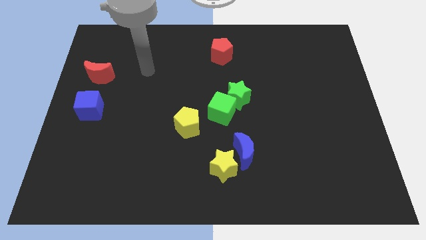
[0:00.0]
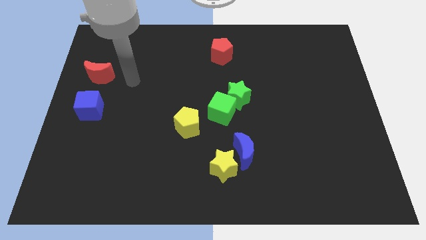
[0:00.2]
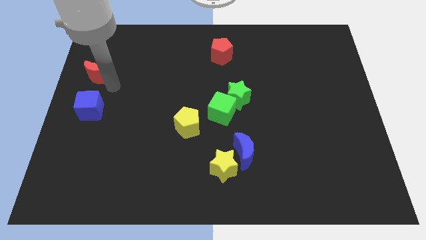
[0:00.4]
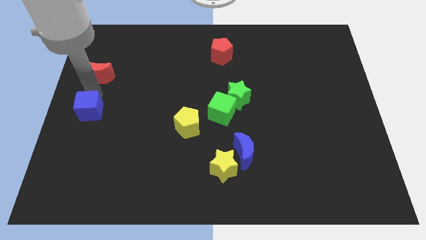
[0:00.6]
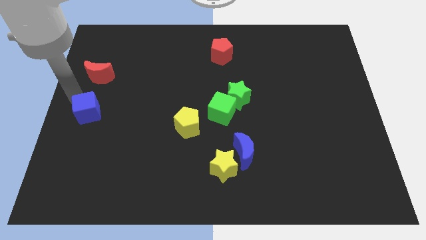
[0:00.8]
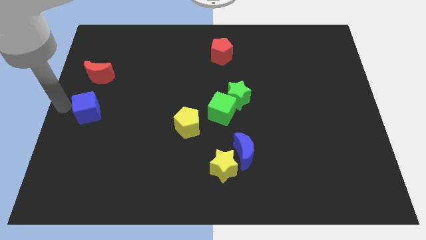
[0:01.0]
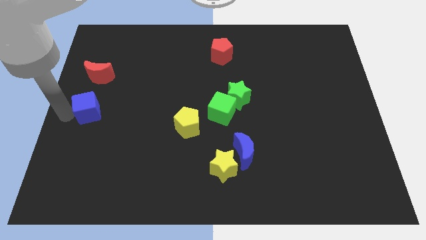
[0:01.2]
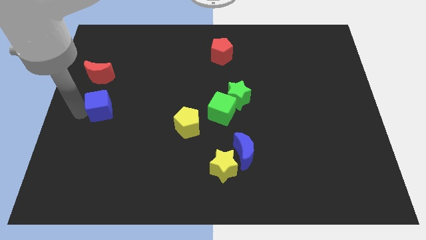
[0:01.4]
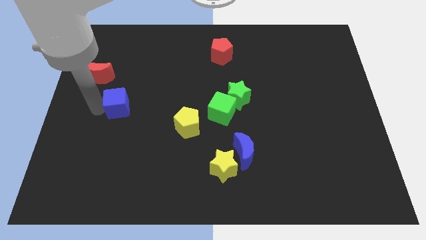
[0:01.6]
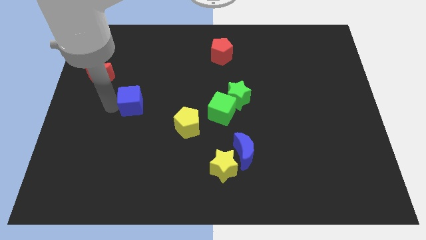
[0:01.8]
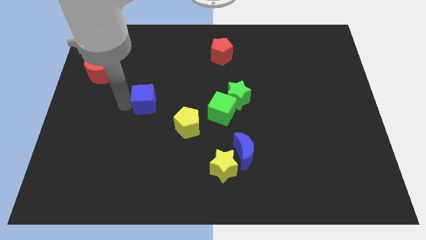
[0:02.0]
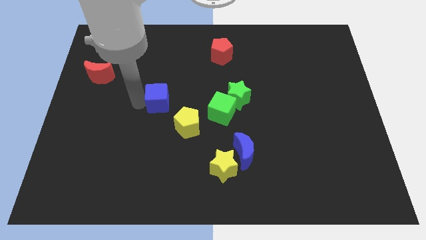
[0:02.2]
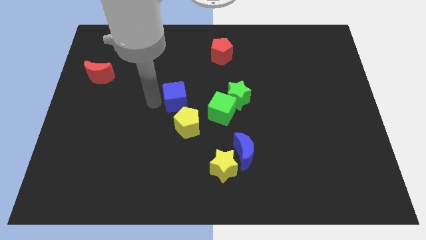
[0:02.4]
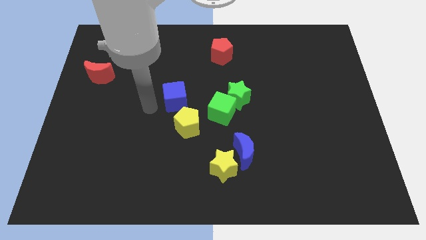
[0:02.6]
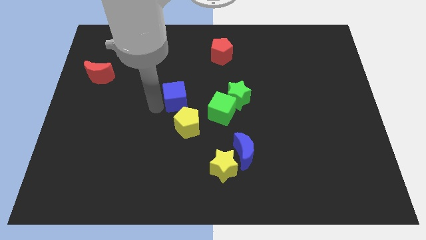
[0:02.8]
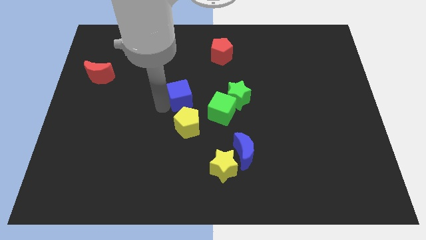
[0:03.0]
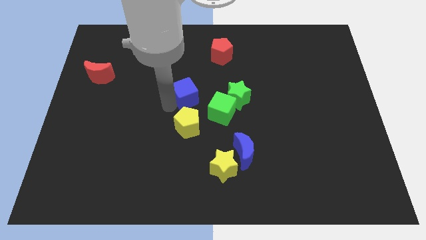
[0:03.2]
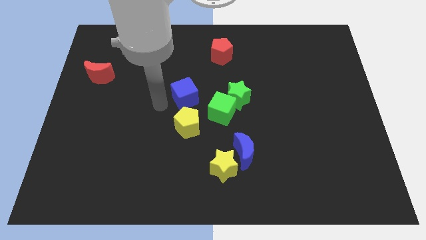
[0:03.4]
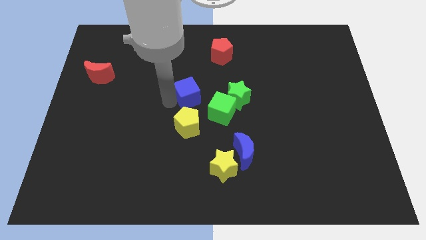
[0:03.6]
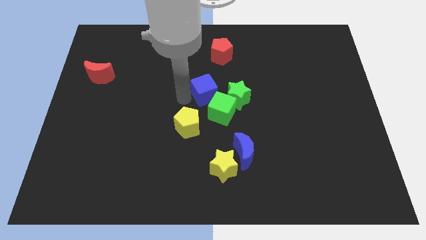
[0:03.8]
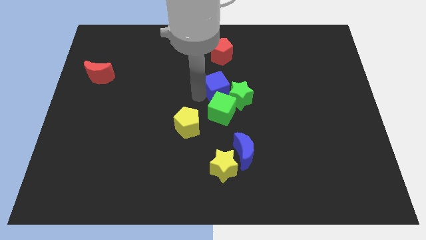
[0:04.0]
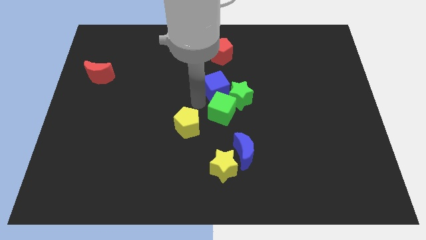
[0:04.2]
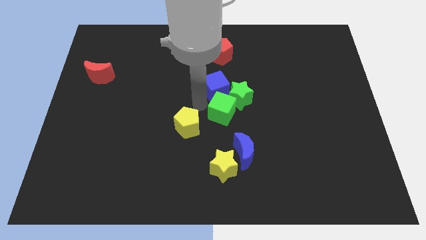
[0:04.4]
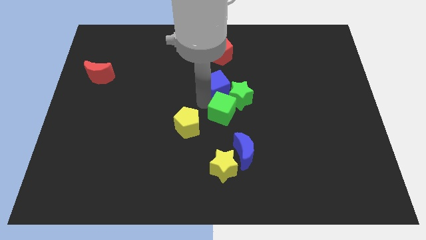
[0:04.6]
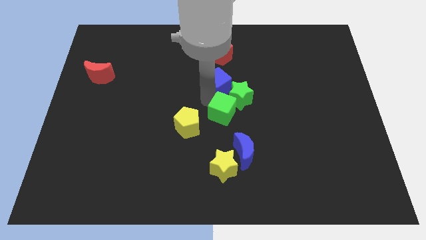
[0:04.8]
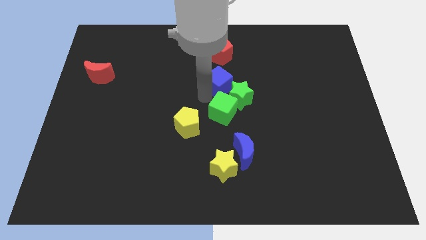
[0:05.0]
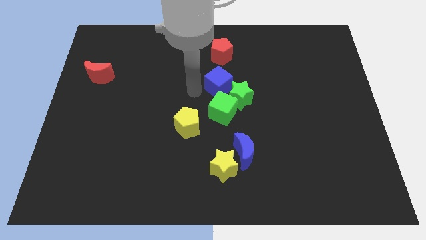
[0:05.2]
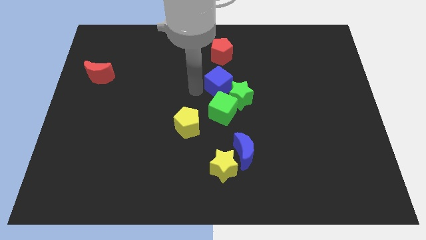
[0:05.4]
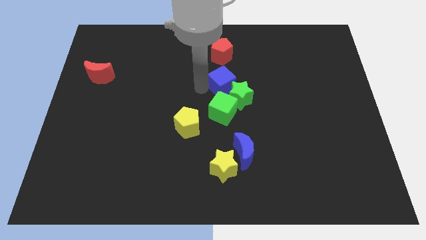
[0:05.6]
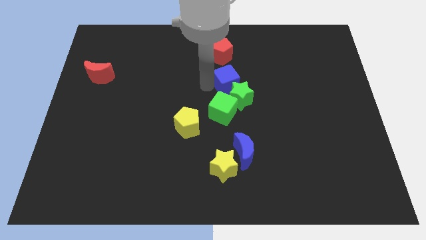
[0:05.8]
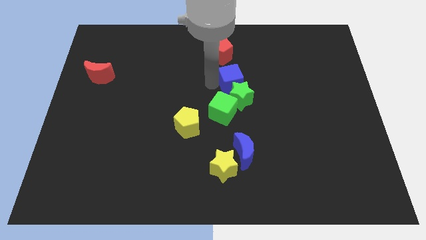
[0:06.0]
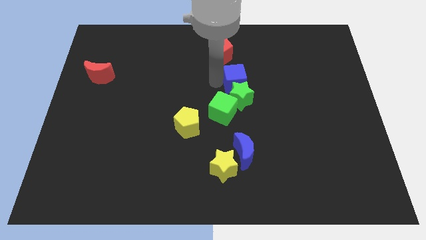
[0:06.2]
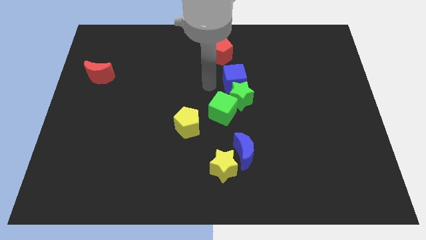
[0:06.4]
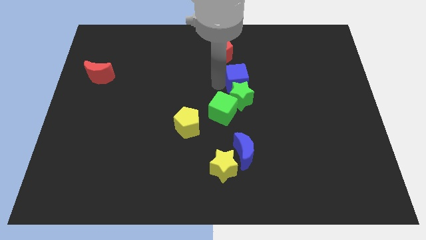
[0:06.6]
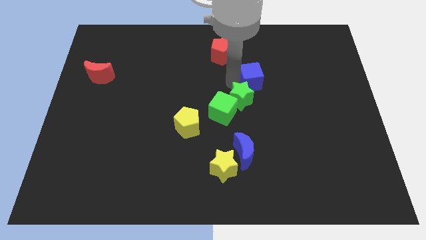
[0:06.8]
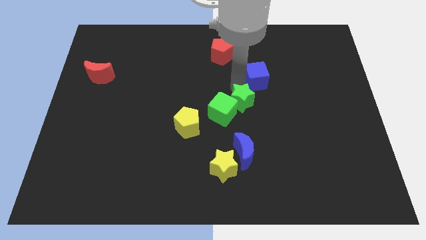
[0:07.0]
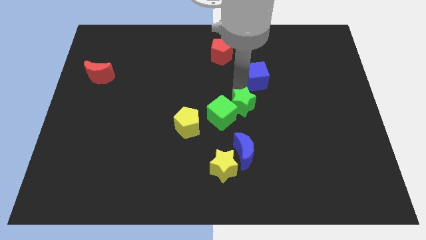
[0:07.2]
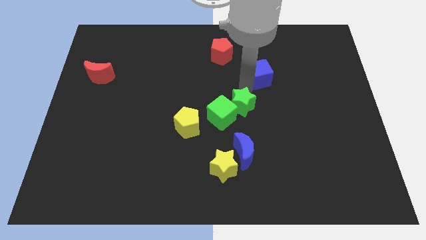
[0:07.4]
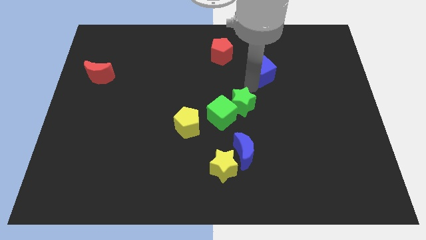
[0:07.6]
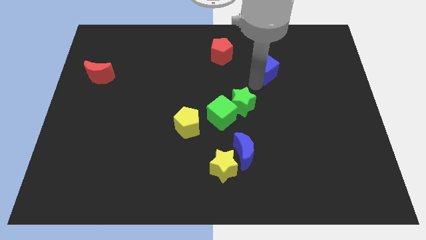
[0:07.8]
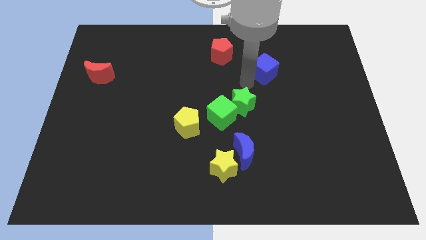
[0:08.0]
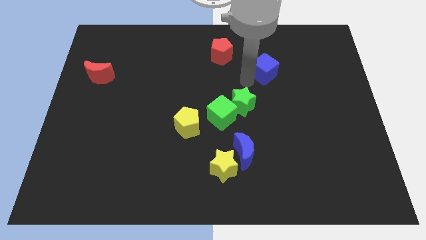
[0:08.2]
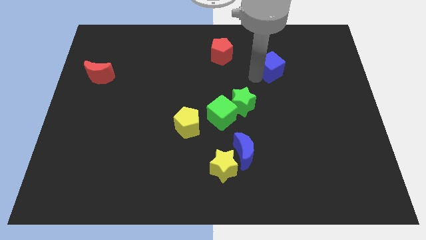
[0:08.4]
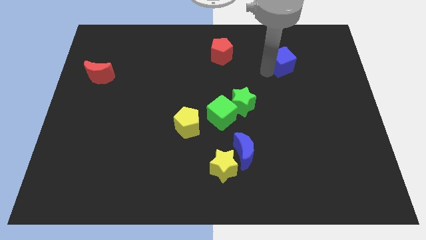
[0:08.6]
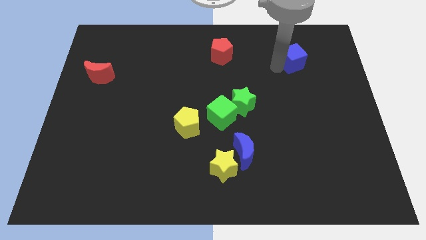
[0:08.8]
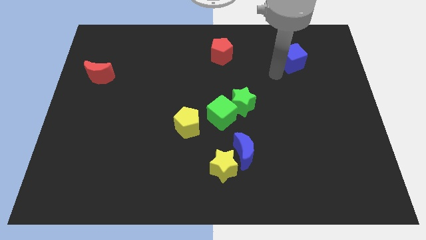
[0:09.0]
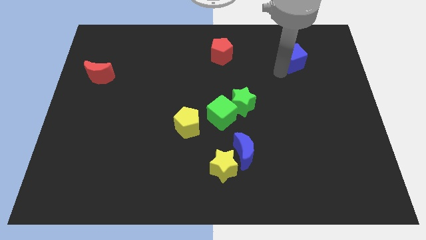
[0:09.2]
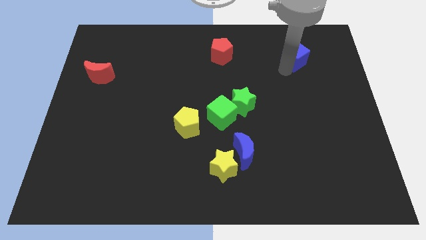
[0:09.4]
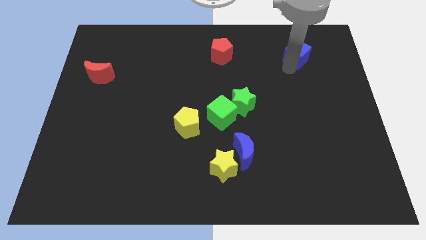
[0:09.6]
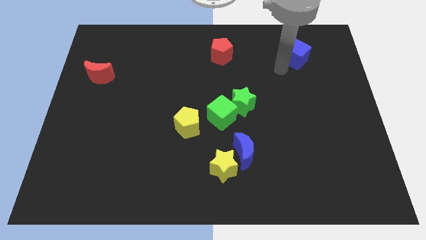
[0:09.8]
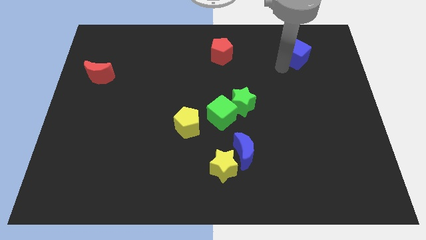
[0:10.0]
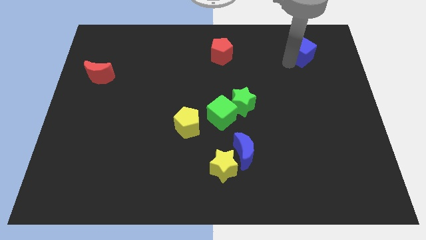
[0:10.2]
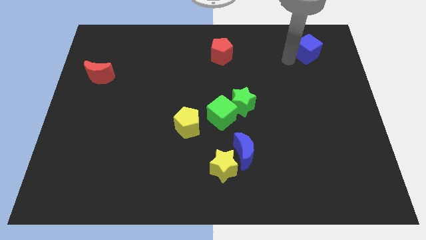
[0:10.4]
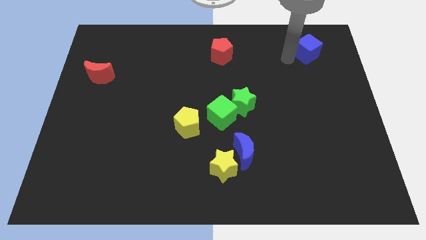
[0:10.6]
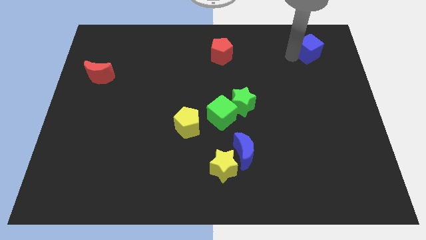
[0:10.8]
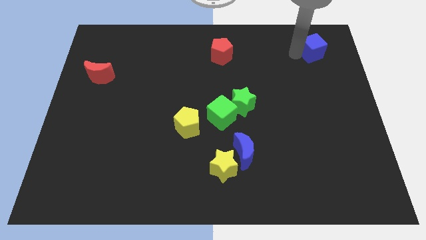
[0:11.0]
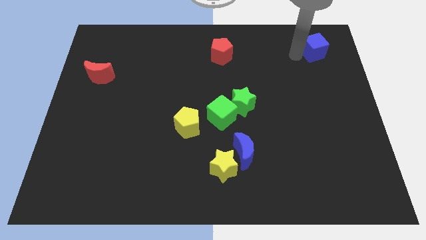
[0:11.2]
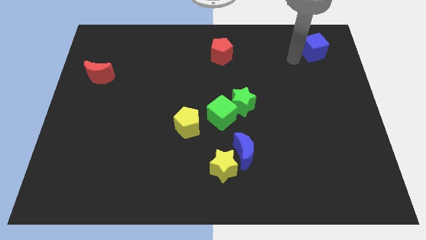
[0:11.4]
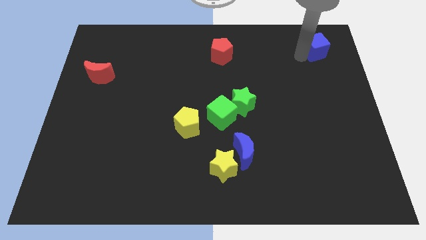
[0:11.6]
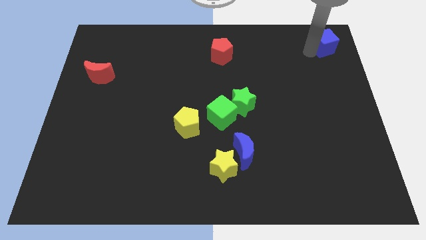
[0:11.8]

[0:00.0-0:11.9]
push the blue cube to the top right corner
